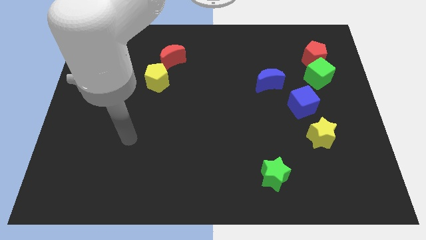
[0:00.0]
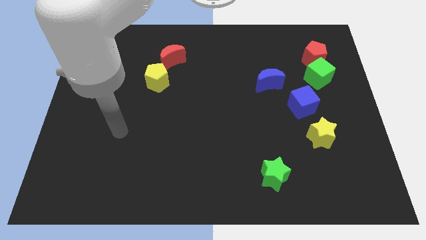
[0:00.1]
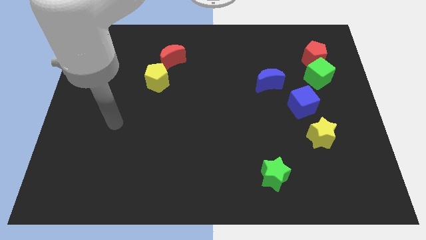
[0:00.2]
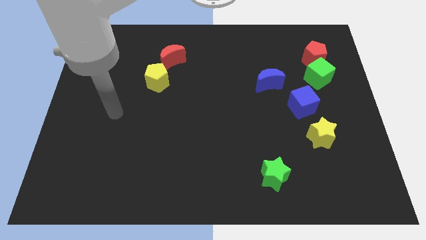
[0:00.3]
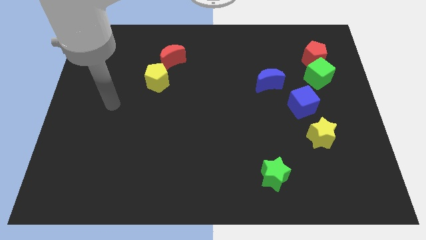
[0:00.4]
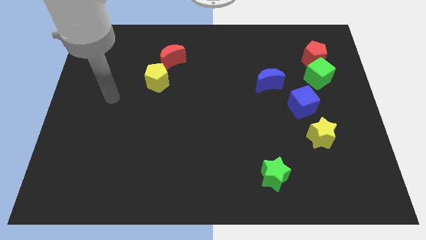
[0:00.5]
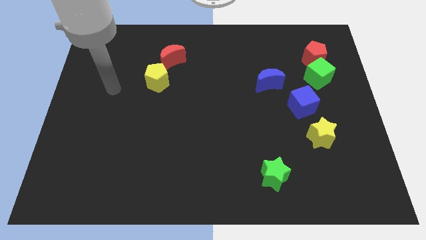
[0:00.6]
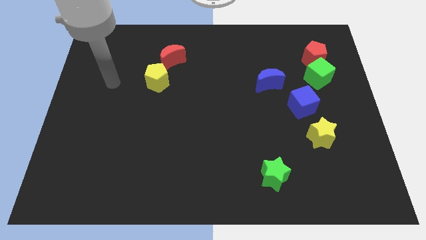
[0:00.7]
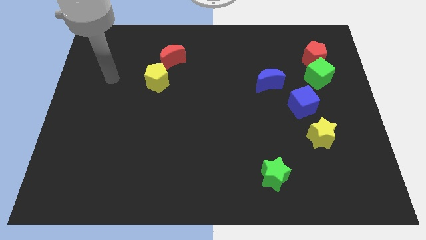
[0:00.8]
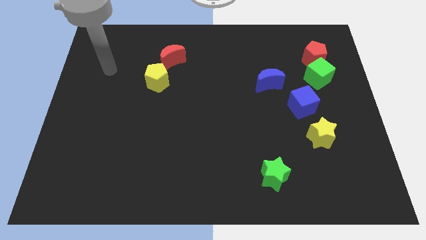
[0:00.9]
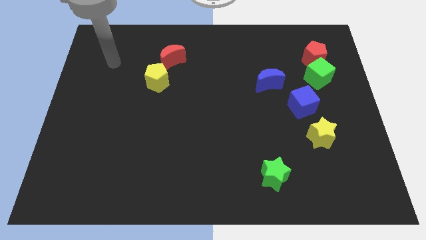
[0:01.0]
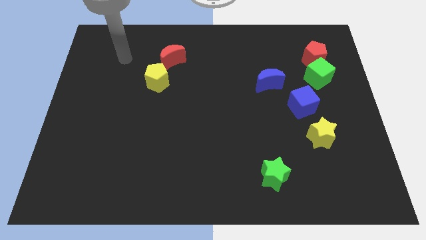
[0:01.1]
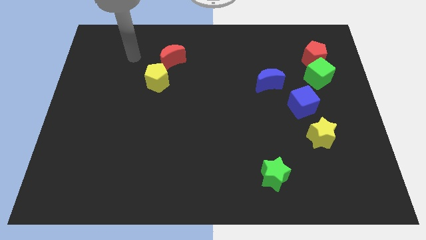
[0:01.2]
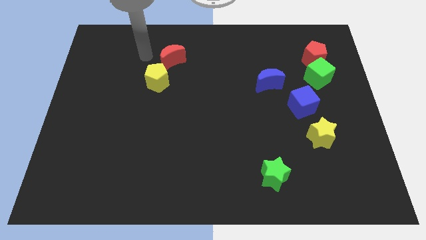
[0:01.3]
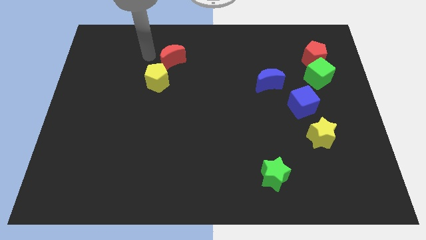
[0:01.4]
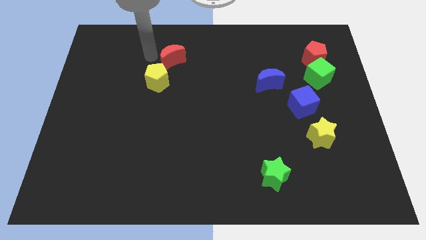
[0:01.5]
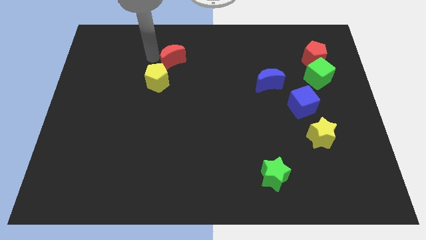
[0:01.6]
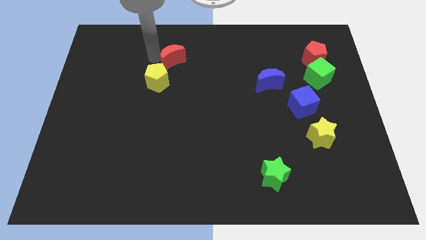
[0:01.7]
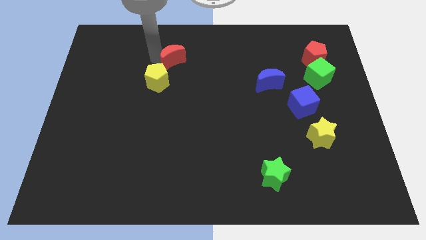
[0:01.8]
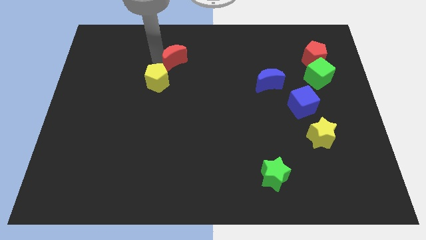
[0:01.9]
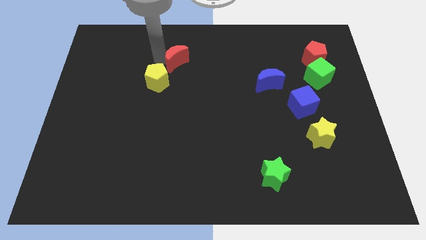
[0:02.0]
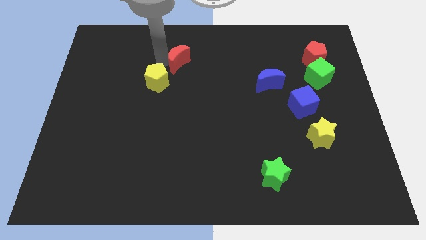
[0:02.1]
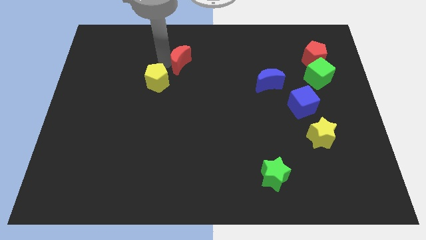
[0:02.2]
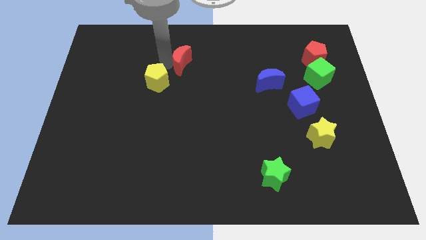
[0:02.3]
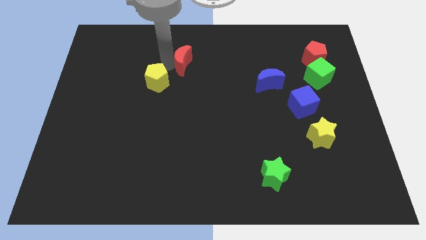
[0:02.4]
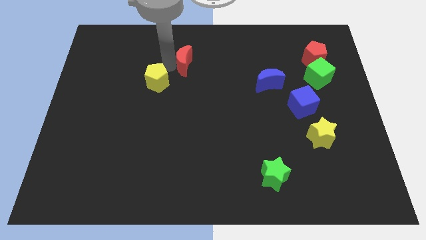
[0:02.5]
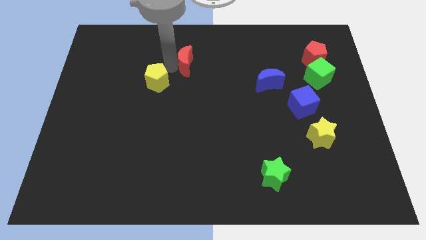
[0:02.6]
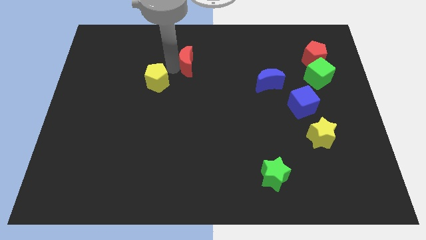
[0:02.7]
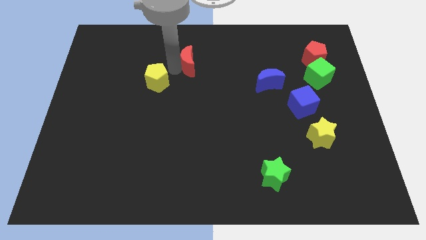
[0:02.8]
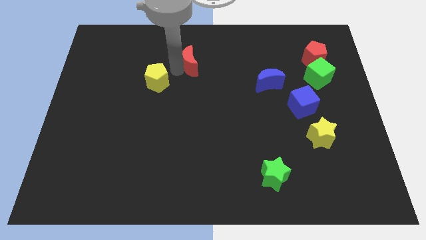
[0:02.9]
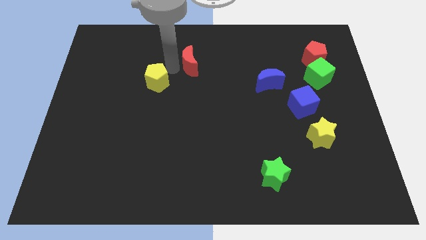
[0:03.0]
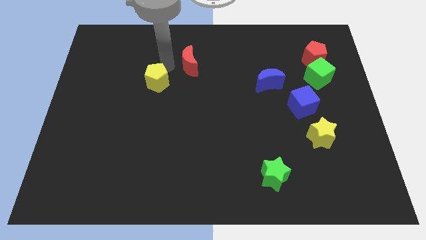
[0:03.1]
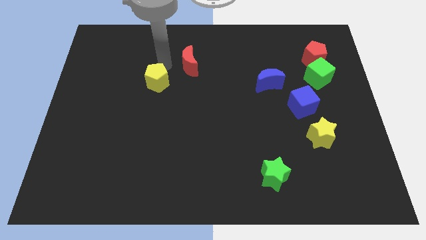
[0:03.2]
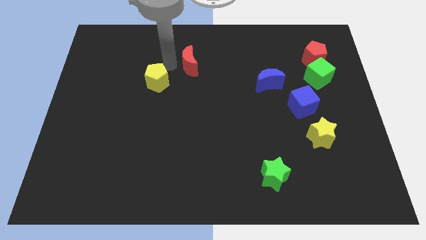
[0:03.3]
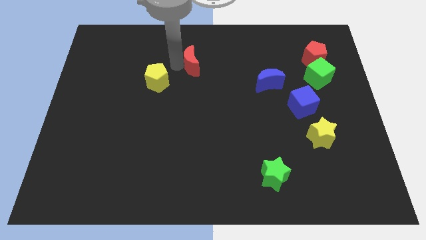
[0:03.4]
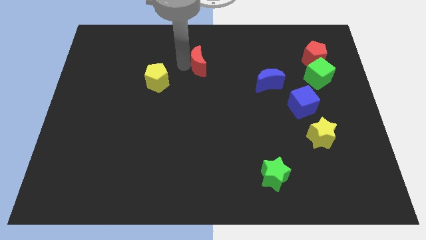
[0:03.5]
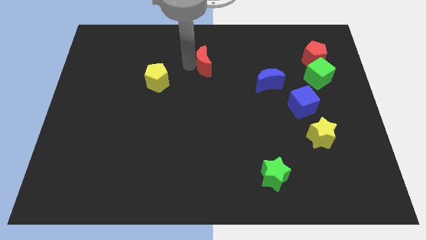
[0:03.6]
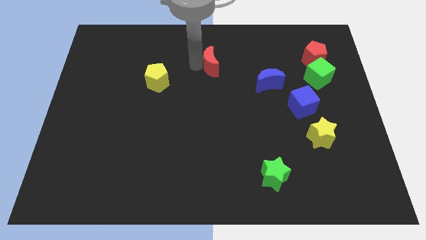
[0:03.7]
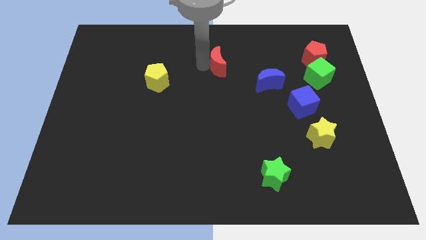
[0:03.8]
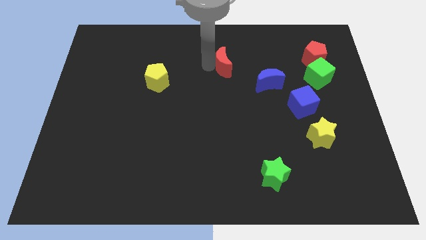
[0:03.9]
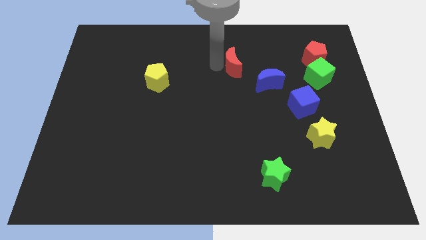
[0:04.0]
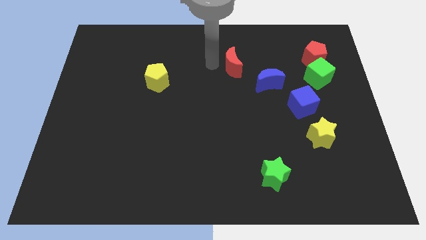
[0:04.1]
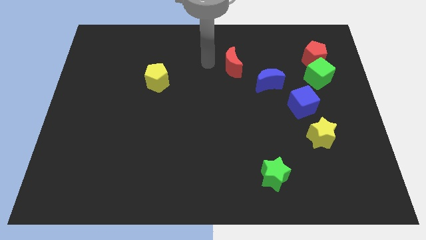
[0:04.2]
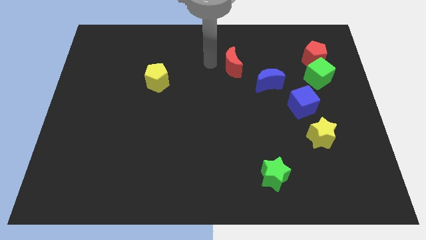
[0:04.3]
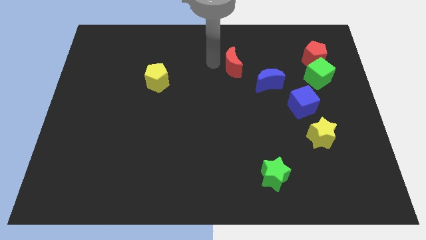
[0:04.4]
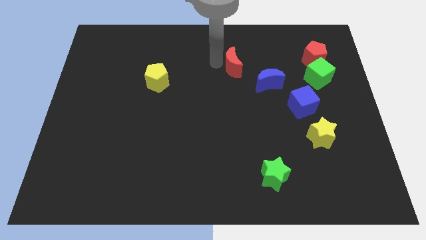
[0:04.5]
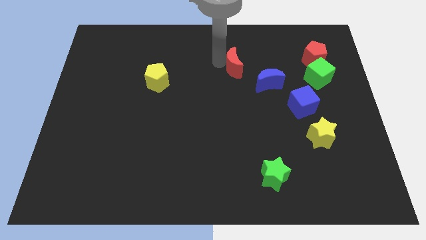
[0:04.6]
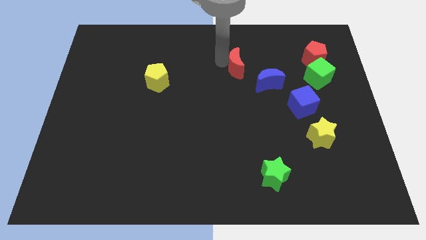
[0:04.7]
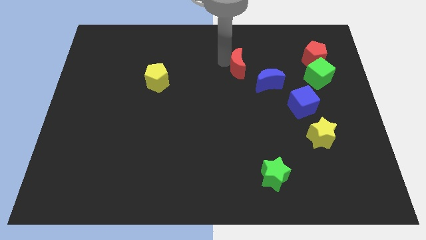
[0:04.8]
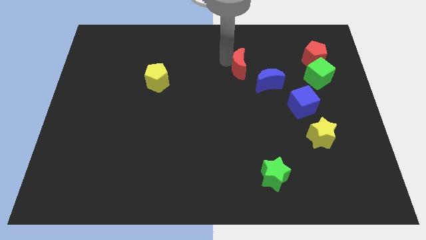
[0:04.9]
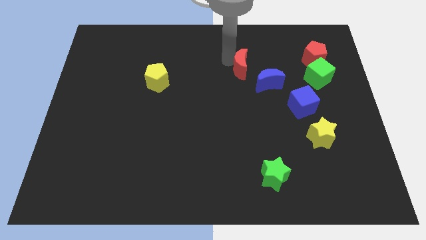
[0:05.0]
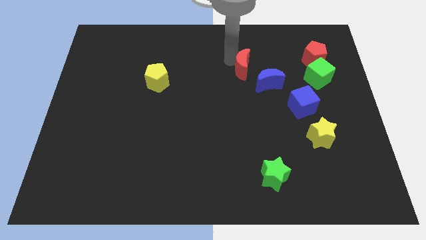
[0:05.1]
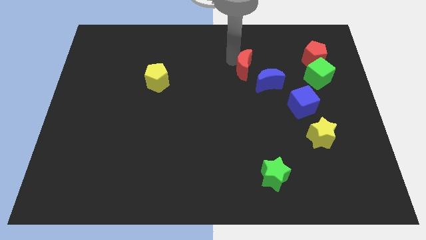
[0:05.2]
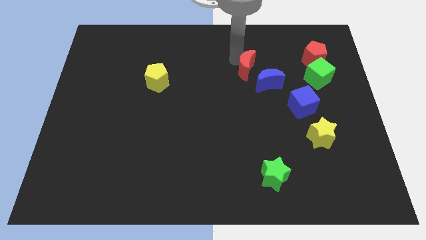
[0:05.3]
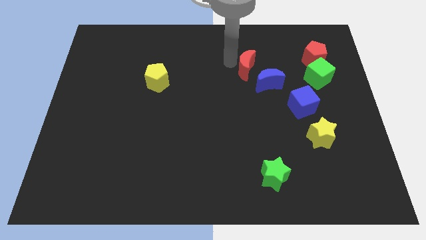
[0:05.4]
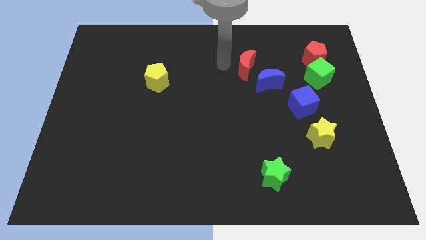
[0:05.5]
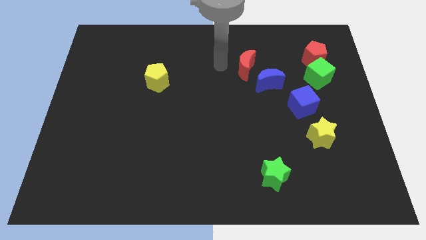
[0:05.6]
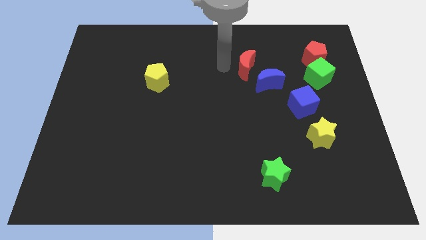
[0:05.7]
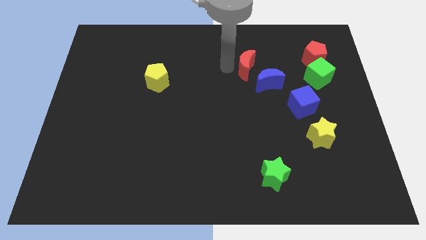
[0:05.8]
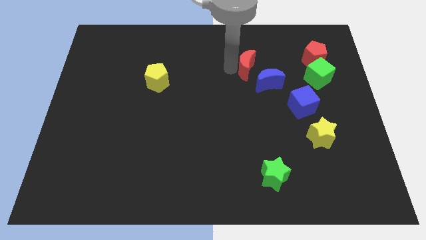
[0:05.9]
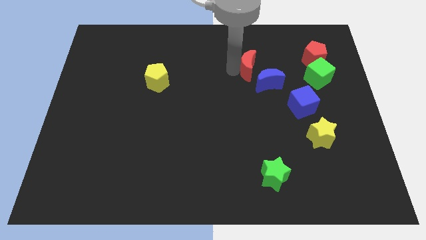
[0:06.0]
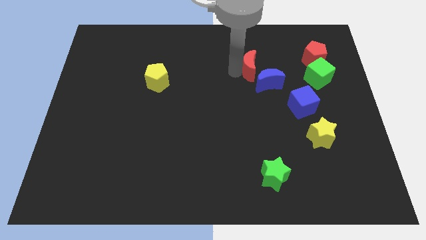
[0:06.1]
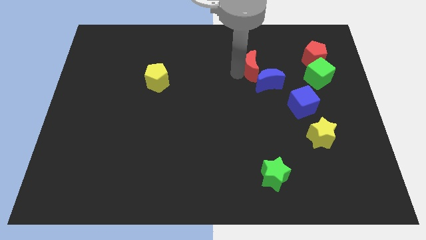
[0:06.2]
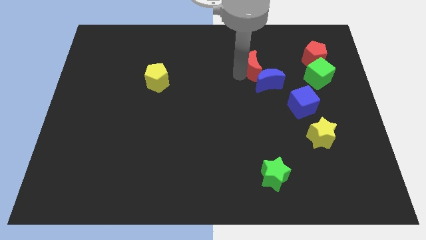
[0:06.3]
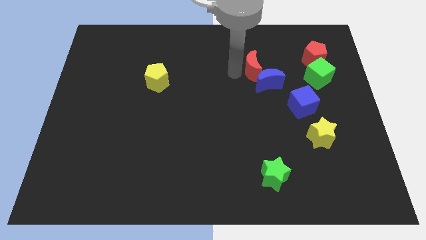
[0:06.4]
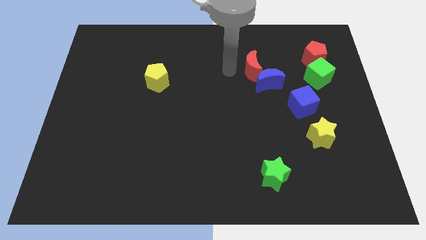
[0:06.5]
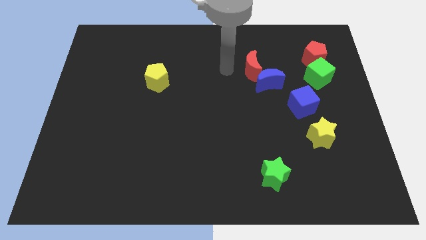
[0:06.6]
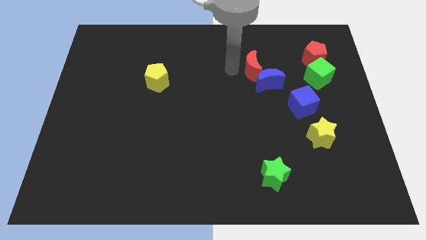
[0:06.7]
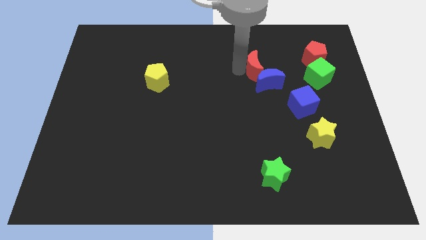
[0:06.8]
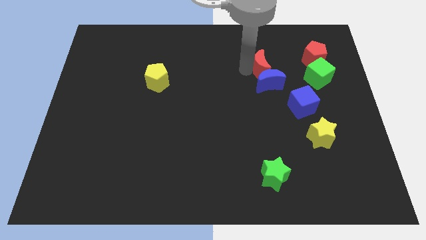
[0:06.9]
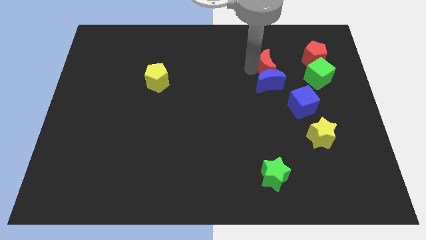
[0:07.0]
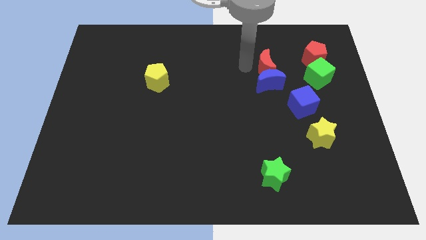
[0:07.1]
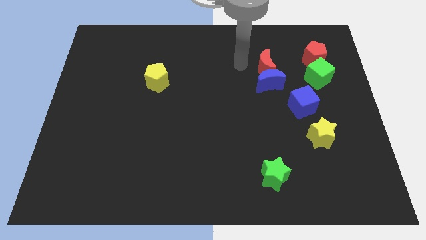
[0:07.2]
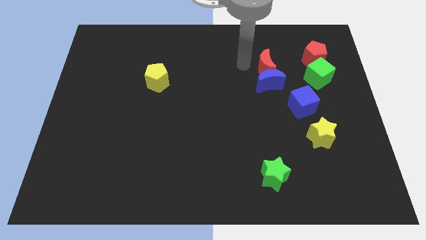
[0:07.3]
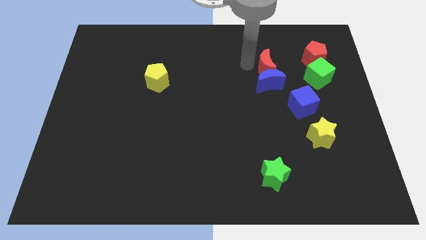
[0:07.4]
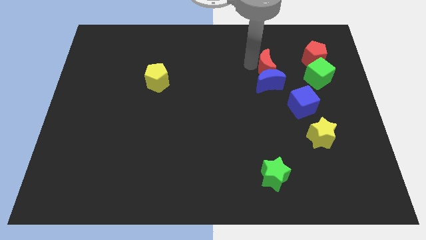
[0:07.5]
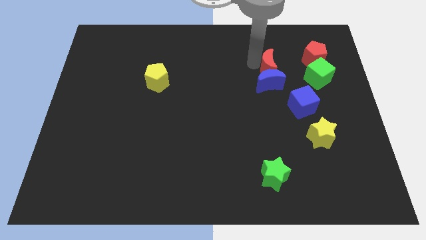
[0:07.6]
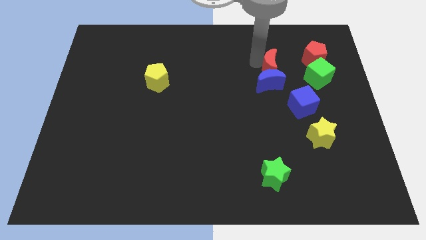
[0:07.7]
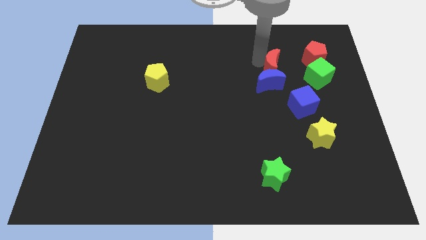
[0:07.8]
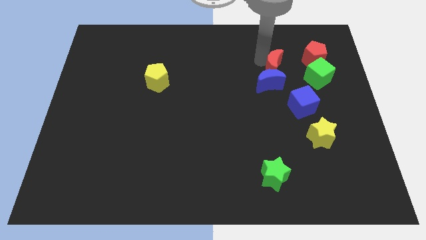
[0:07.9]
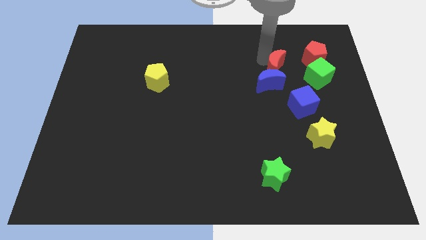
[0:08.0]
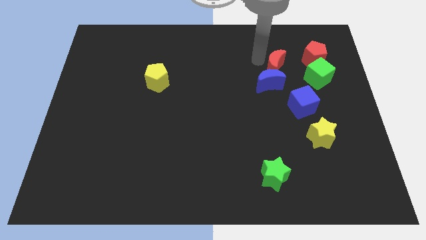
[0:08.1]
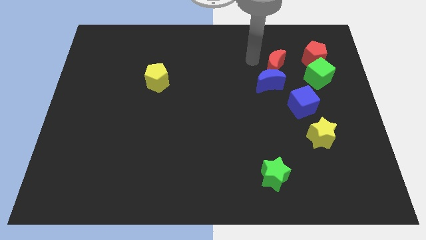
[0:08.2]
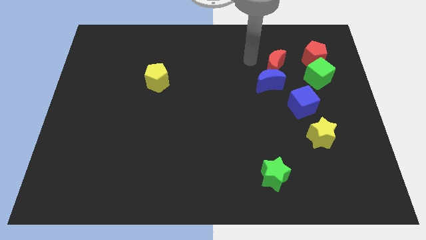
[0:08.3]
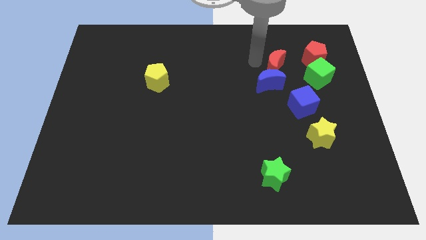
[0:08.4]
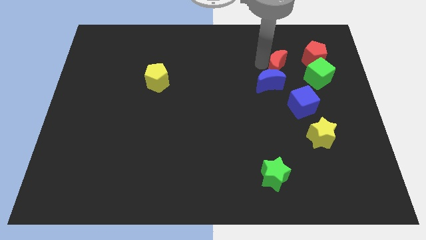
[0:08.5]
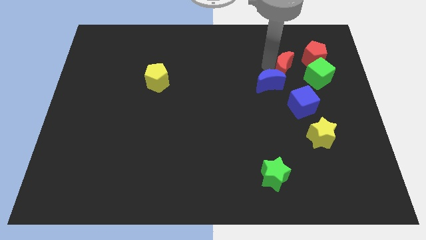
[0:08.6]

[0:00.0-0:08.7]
put the red moon to the top of the blue cube
